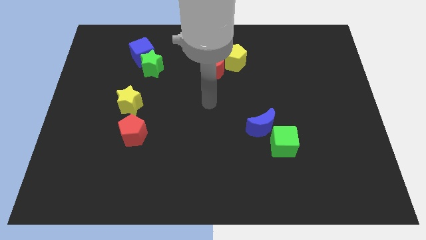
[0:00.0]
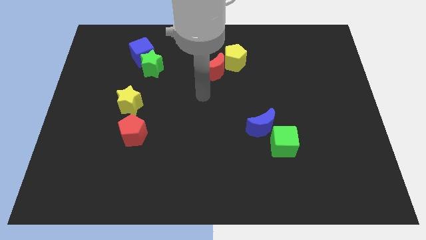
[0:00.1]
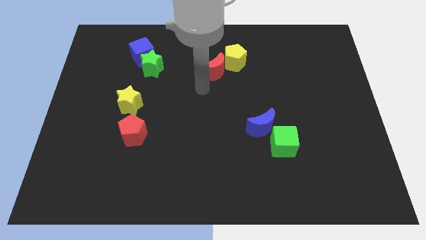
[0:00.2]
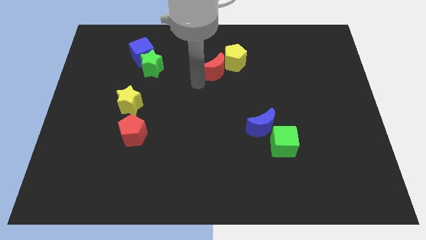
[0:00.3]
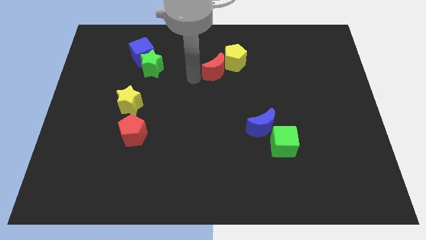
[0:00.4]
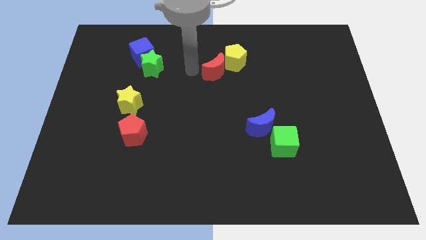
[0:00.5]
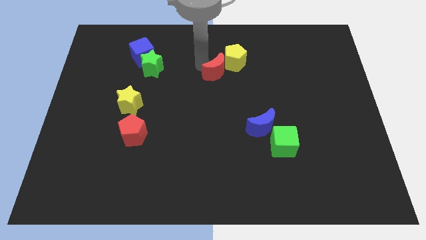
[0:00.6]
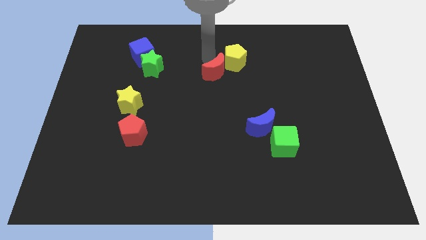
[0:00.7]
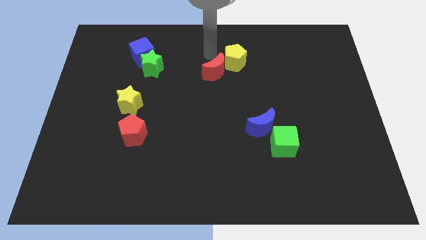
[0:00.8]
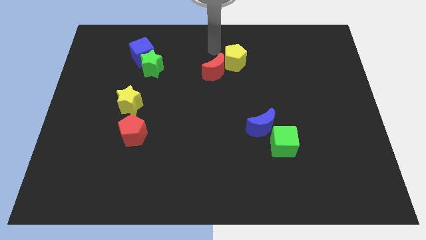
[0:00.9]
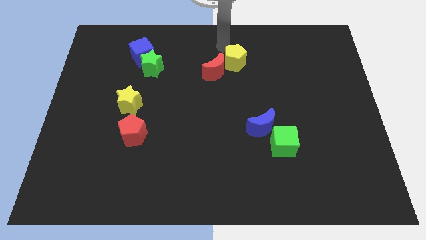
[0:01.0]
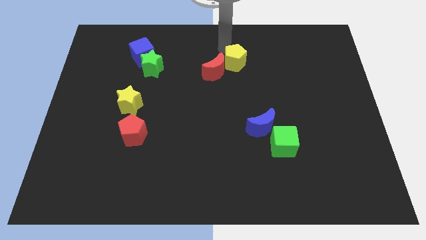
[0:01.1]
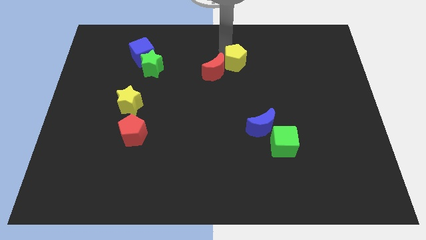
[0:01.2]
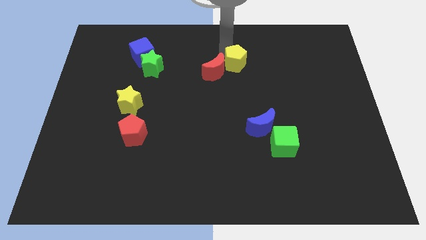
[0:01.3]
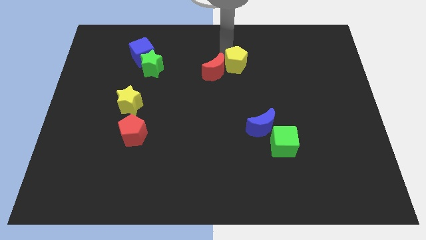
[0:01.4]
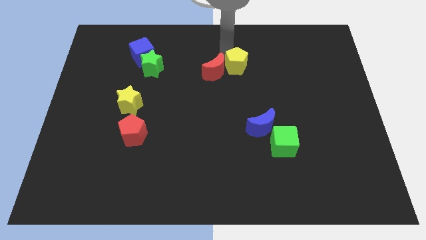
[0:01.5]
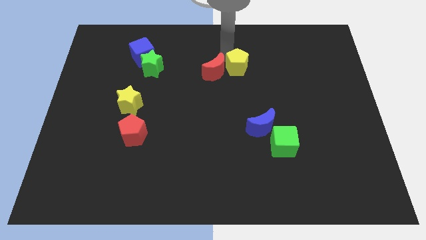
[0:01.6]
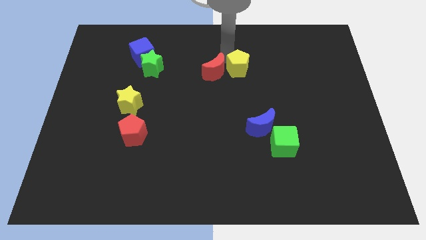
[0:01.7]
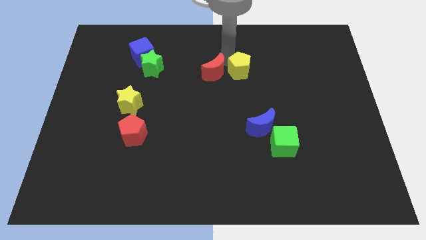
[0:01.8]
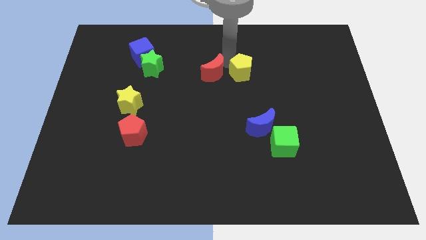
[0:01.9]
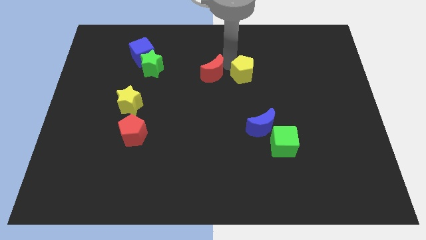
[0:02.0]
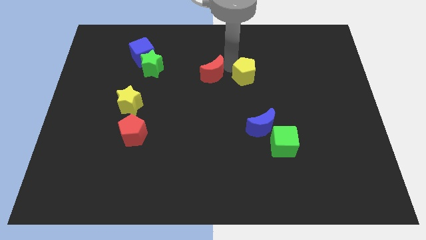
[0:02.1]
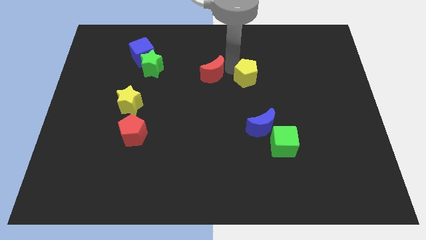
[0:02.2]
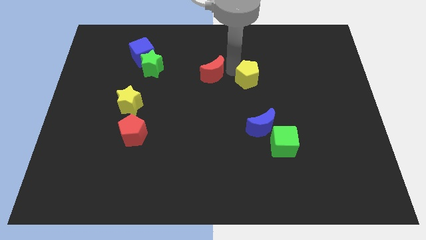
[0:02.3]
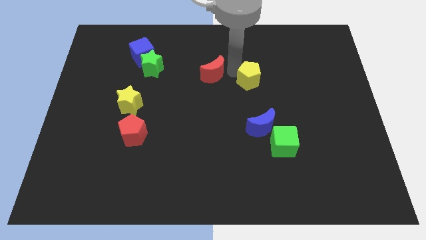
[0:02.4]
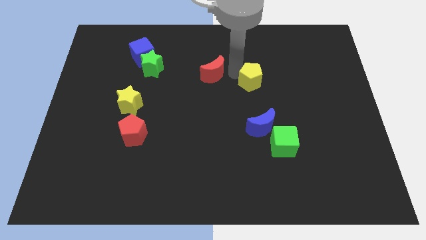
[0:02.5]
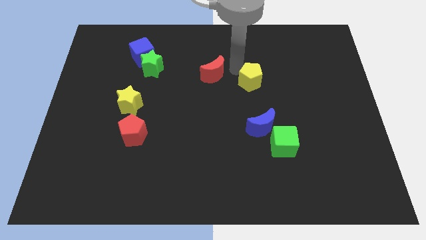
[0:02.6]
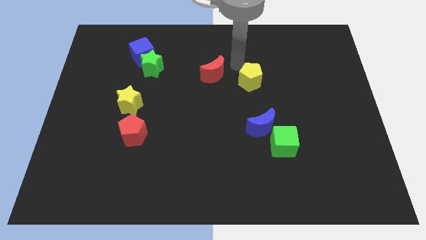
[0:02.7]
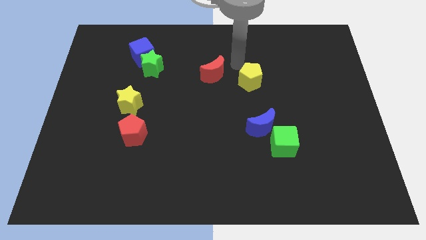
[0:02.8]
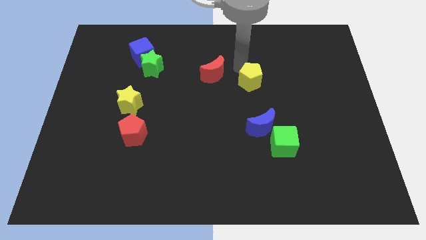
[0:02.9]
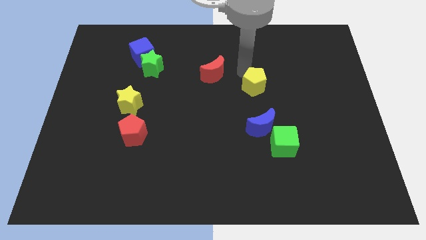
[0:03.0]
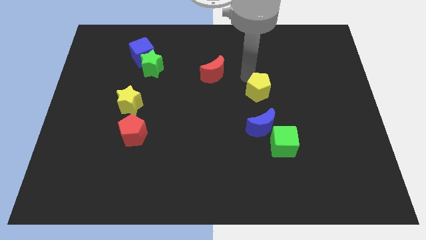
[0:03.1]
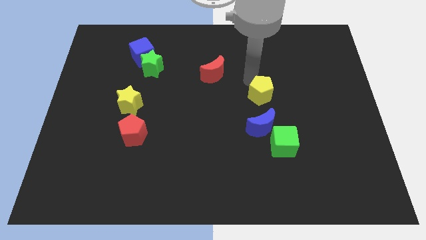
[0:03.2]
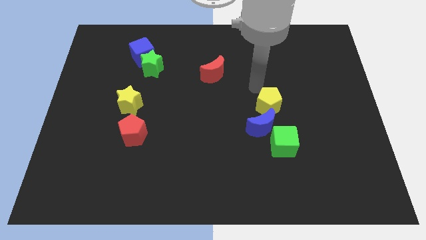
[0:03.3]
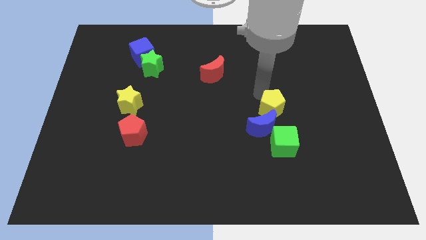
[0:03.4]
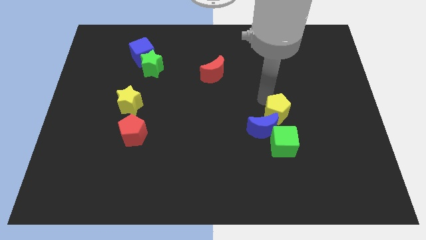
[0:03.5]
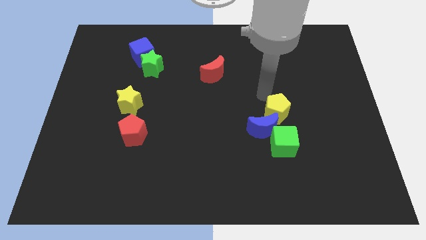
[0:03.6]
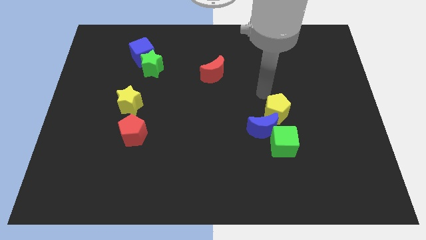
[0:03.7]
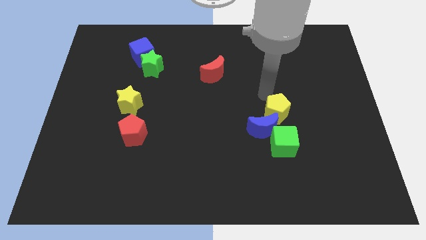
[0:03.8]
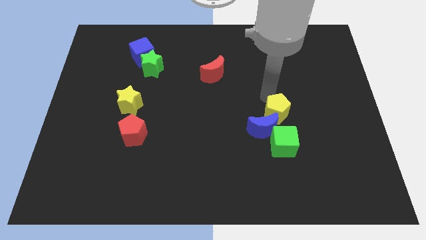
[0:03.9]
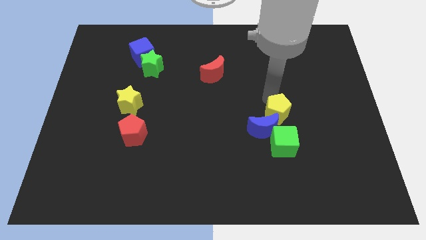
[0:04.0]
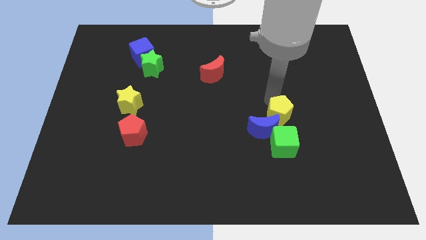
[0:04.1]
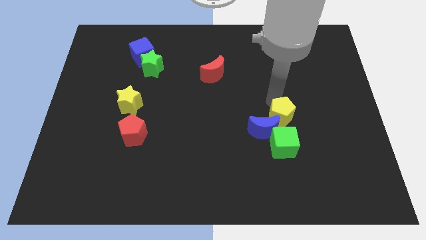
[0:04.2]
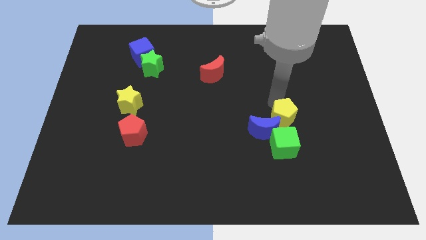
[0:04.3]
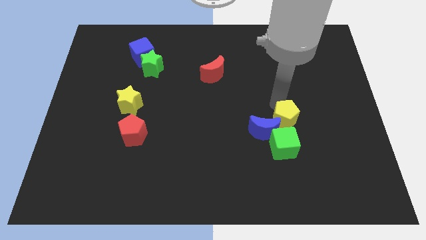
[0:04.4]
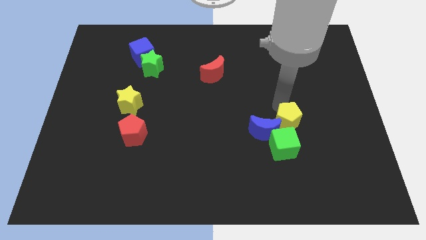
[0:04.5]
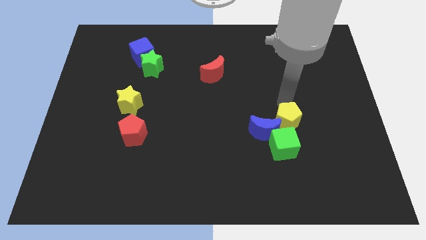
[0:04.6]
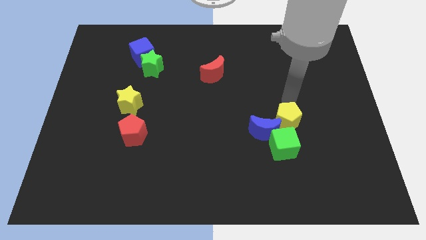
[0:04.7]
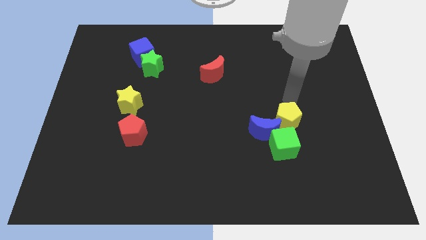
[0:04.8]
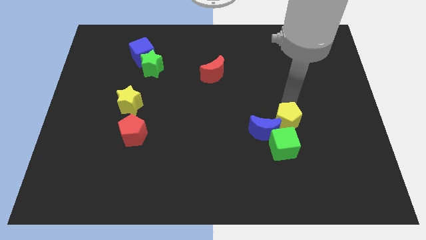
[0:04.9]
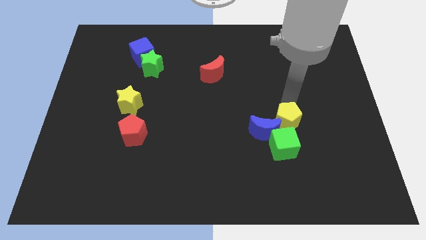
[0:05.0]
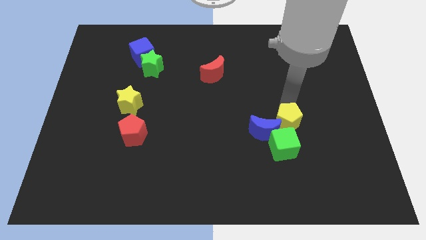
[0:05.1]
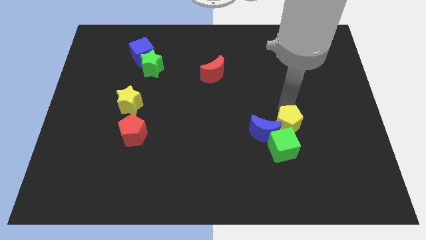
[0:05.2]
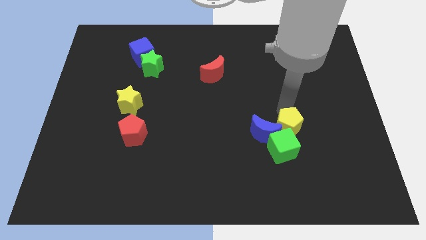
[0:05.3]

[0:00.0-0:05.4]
push the yellow pentagon next to the green cube

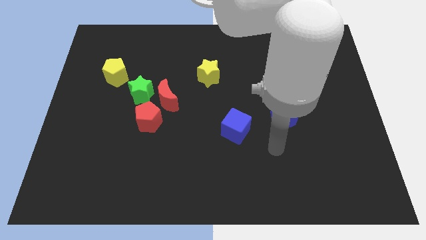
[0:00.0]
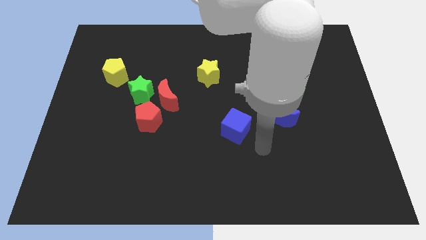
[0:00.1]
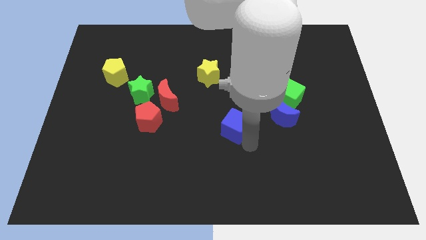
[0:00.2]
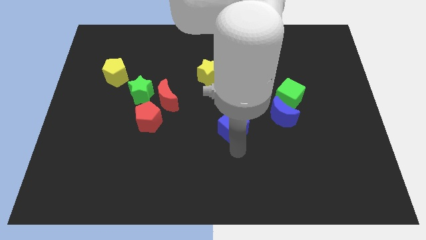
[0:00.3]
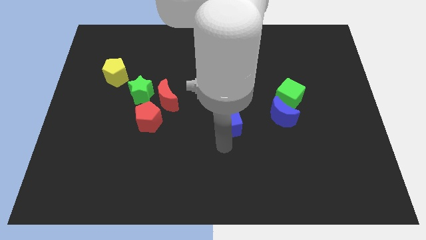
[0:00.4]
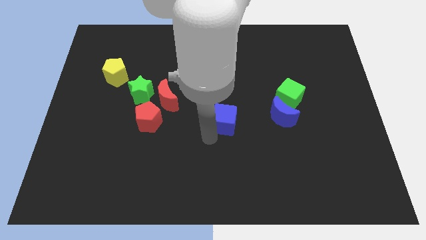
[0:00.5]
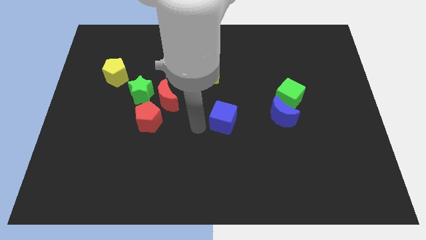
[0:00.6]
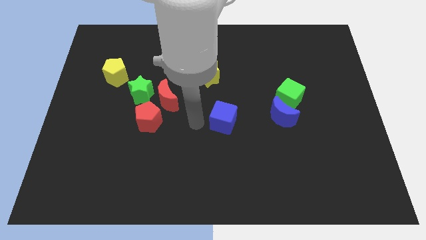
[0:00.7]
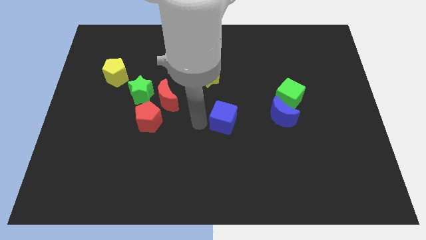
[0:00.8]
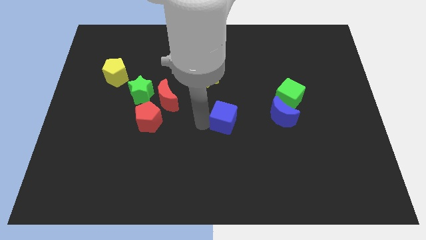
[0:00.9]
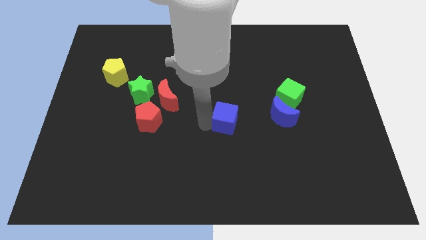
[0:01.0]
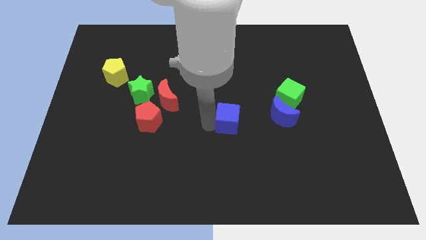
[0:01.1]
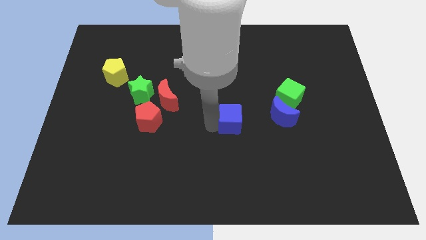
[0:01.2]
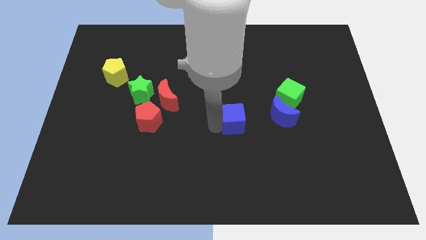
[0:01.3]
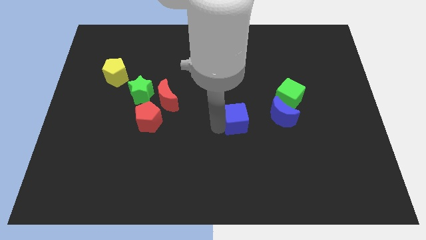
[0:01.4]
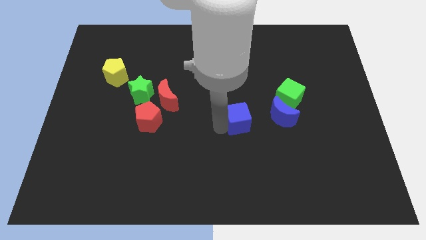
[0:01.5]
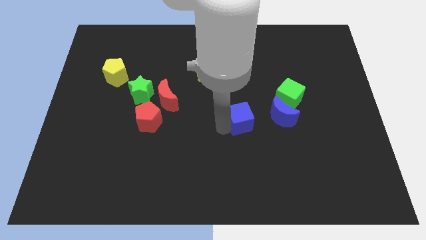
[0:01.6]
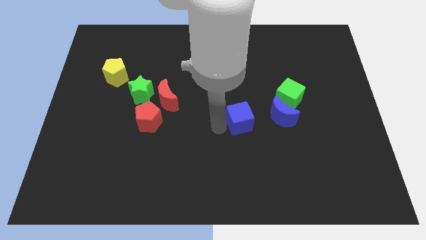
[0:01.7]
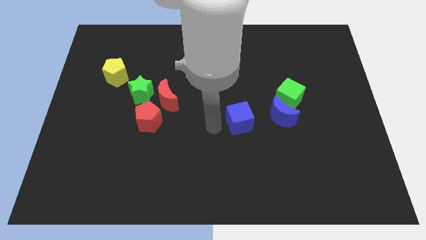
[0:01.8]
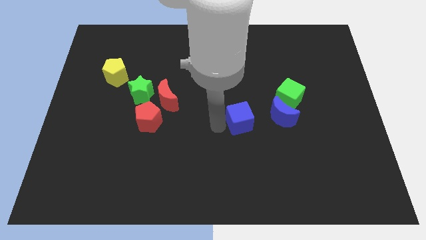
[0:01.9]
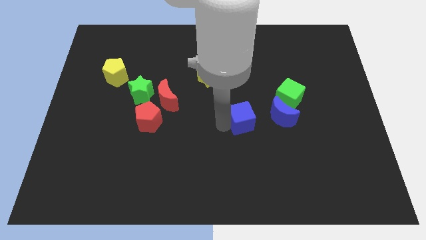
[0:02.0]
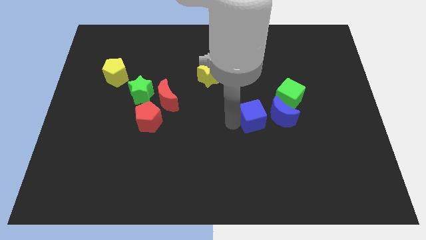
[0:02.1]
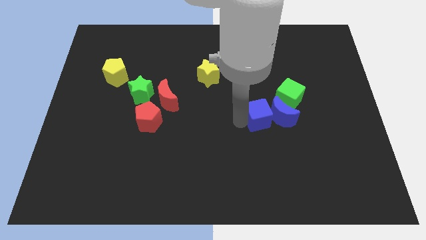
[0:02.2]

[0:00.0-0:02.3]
move the blue cube towards the blue moon

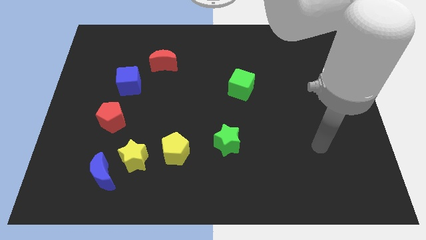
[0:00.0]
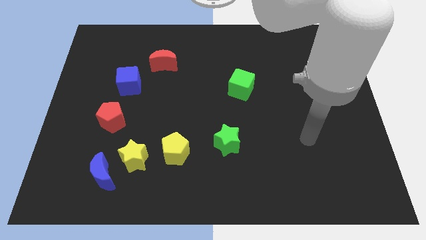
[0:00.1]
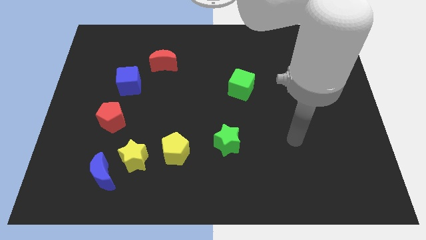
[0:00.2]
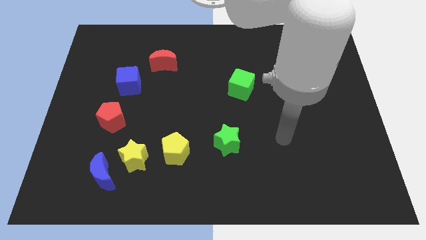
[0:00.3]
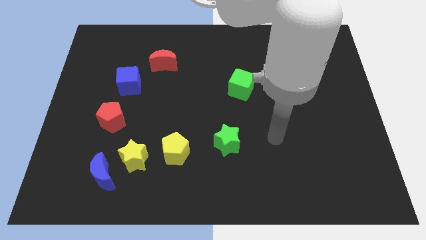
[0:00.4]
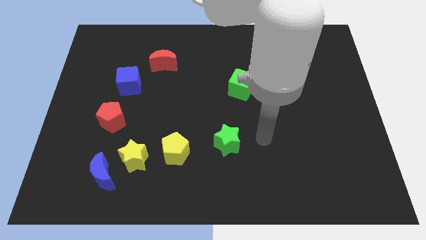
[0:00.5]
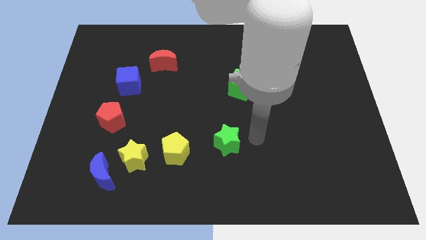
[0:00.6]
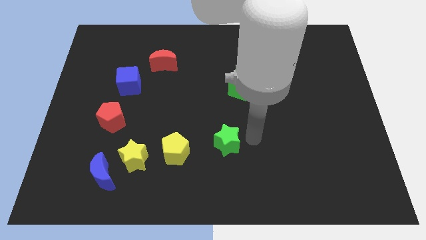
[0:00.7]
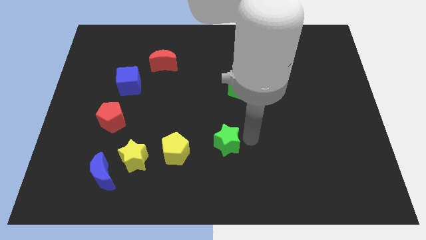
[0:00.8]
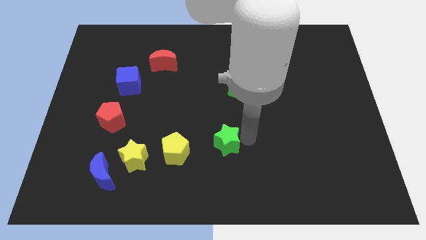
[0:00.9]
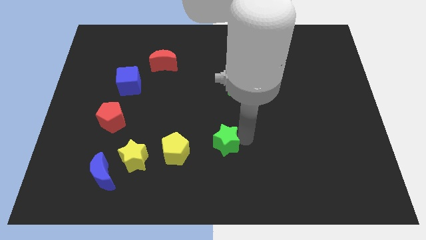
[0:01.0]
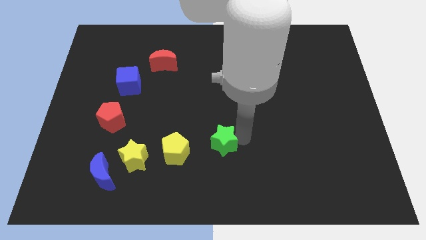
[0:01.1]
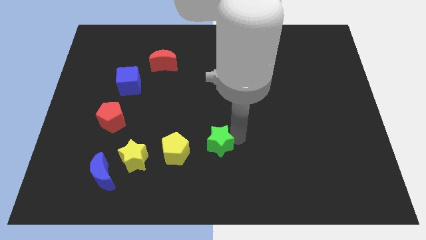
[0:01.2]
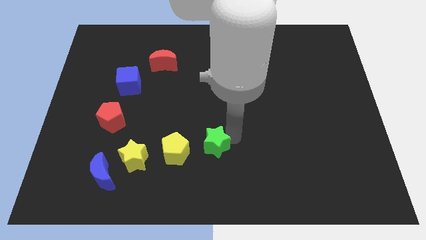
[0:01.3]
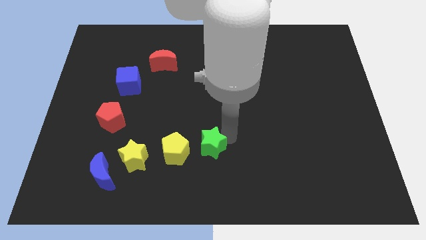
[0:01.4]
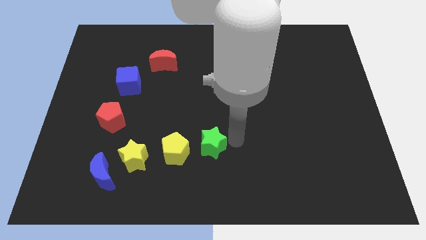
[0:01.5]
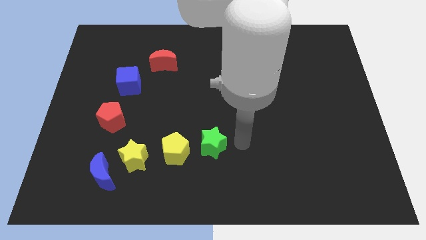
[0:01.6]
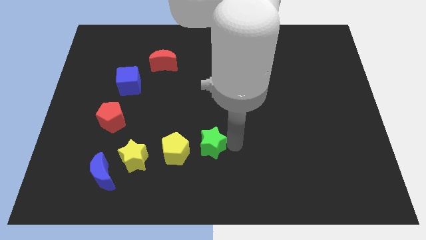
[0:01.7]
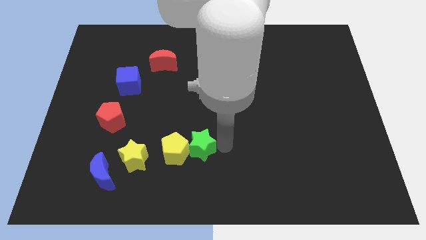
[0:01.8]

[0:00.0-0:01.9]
move the green star next to the yellow pentagon
